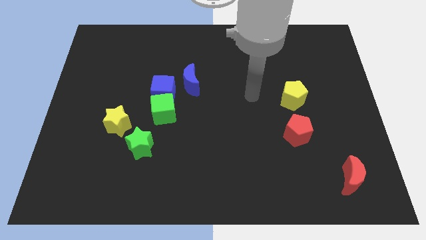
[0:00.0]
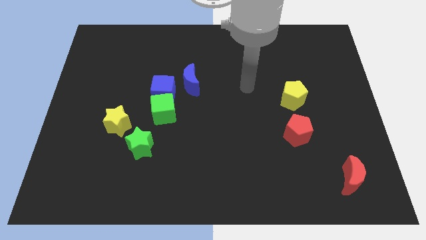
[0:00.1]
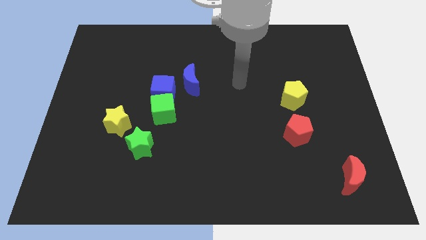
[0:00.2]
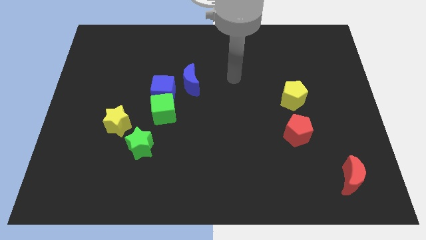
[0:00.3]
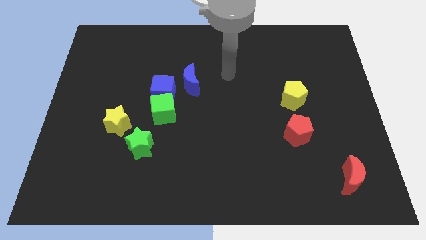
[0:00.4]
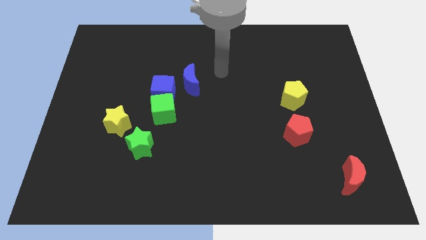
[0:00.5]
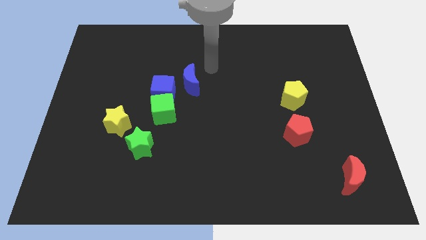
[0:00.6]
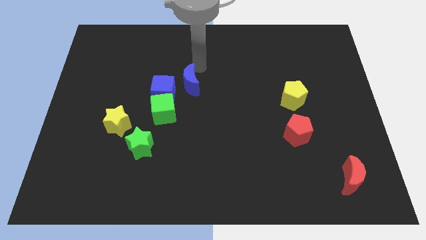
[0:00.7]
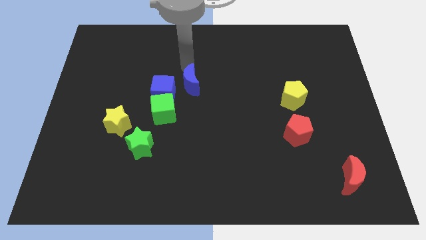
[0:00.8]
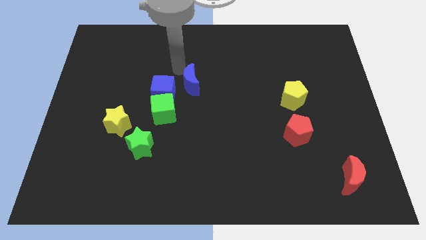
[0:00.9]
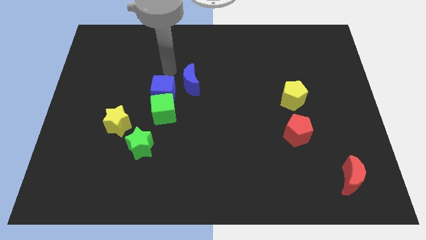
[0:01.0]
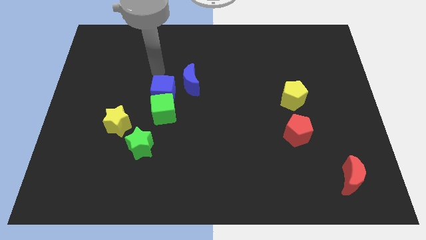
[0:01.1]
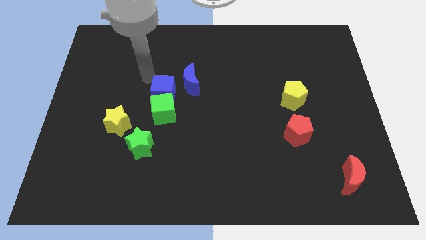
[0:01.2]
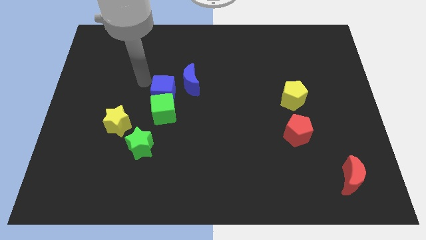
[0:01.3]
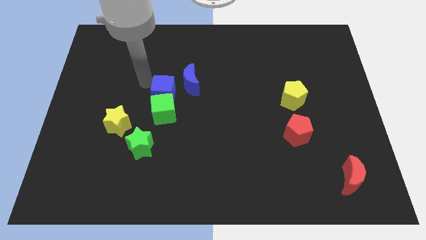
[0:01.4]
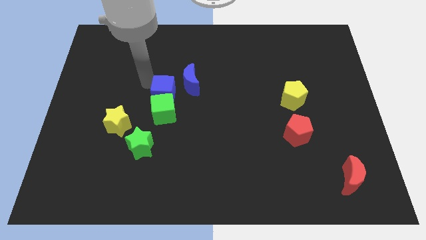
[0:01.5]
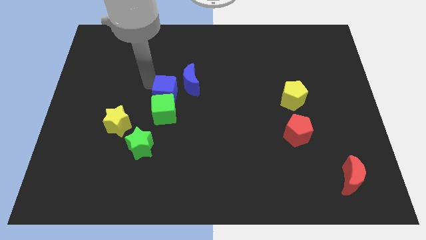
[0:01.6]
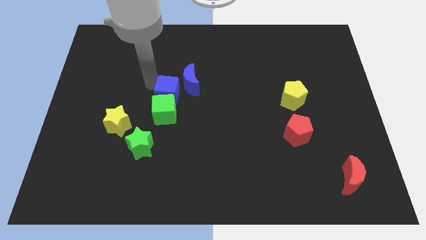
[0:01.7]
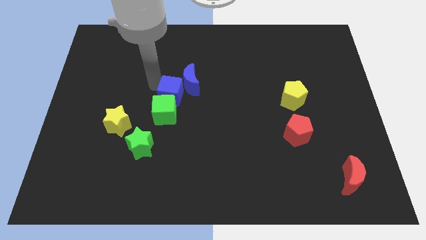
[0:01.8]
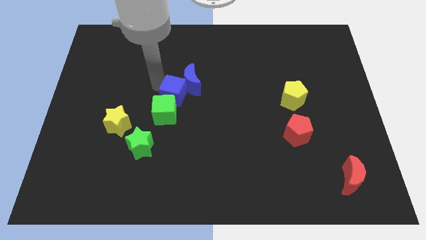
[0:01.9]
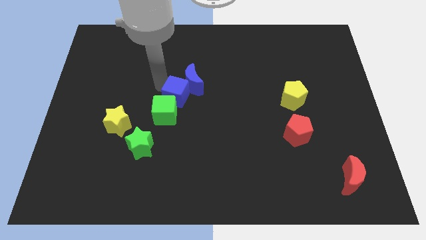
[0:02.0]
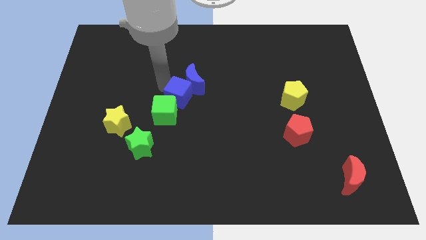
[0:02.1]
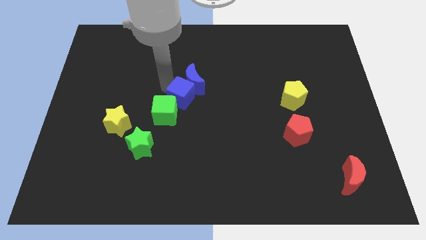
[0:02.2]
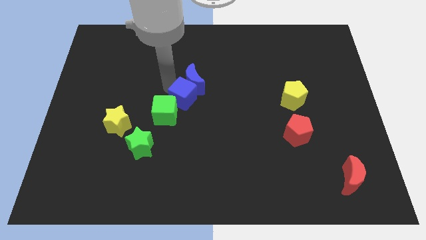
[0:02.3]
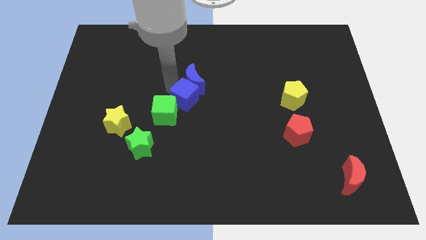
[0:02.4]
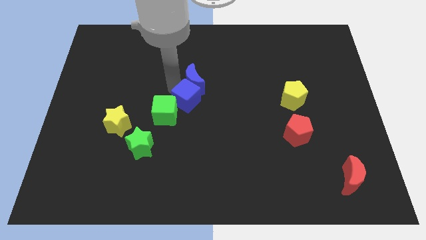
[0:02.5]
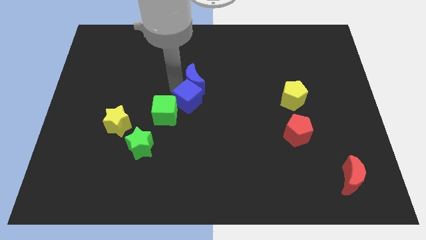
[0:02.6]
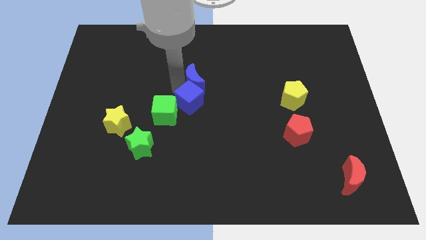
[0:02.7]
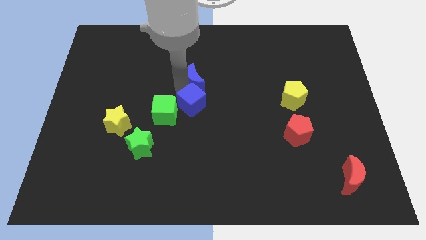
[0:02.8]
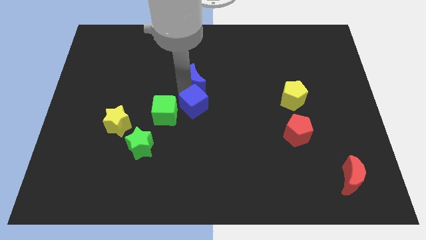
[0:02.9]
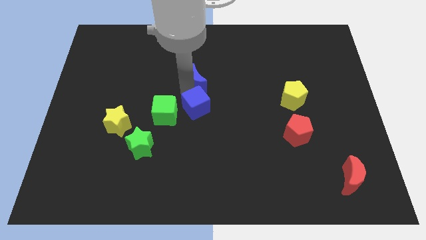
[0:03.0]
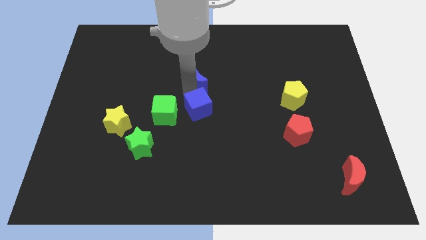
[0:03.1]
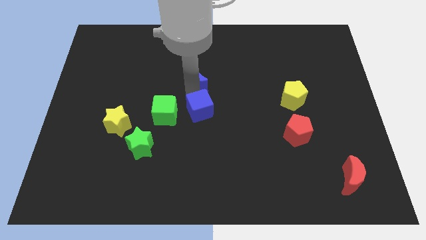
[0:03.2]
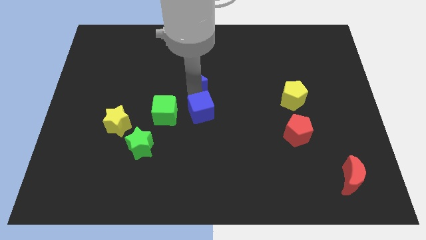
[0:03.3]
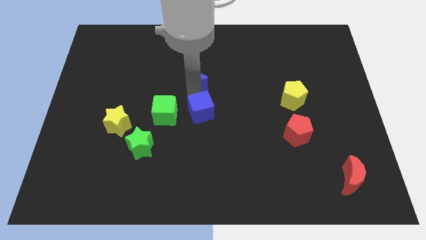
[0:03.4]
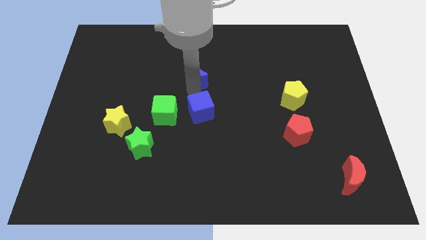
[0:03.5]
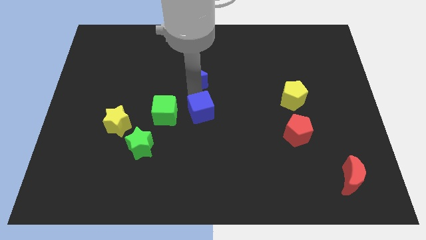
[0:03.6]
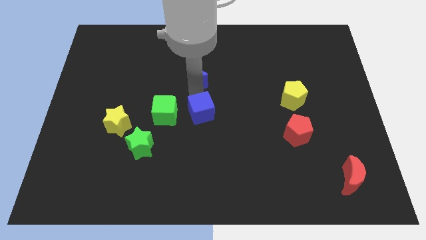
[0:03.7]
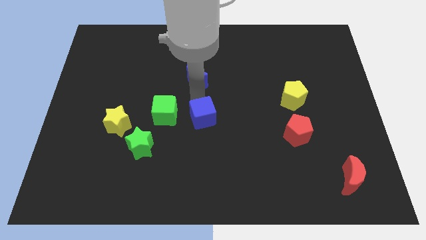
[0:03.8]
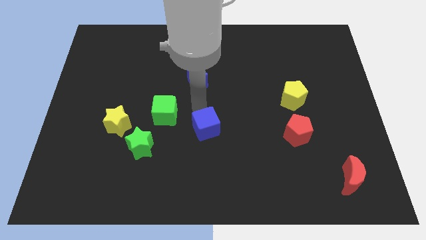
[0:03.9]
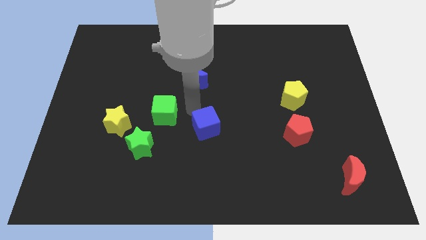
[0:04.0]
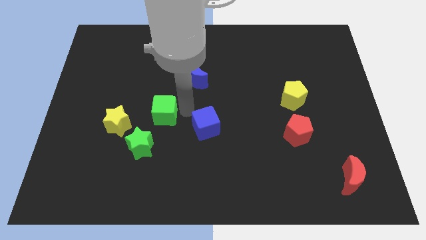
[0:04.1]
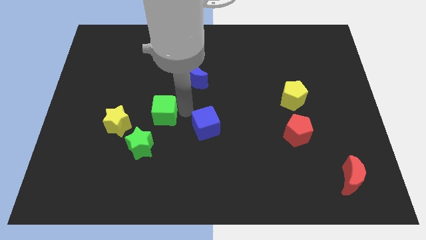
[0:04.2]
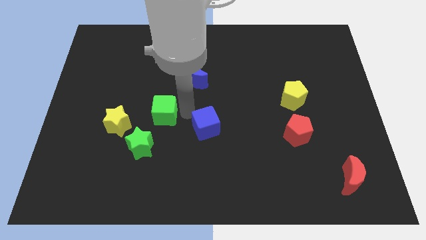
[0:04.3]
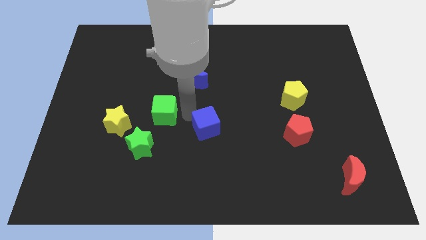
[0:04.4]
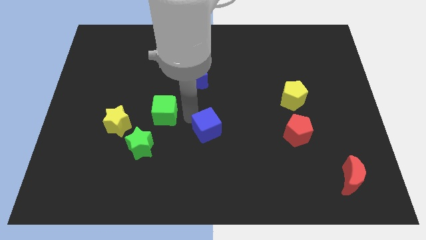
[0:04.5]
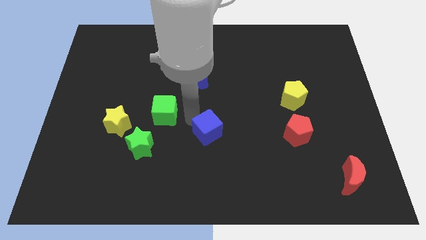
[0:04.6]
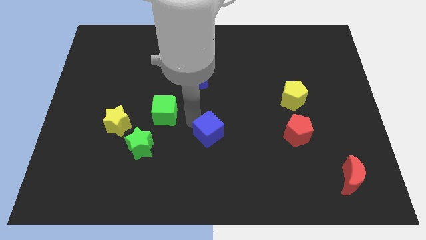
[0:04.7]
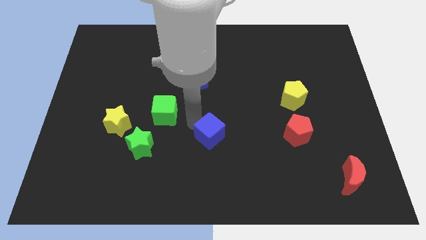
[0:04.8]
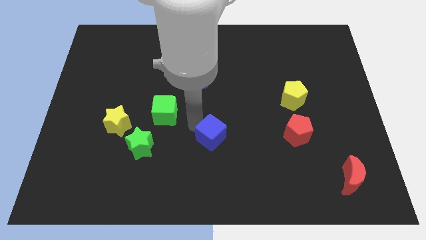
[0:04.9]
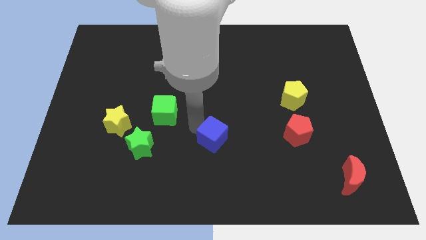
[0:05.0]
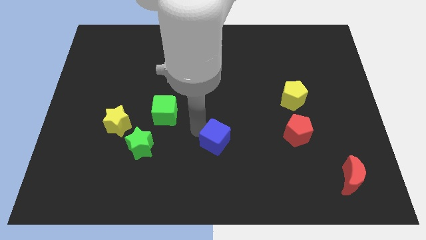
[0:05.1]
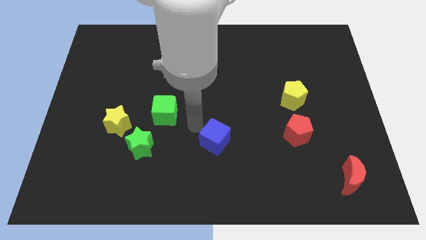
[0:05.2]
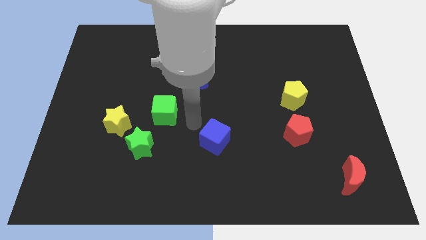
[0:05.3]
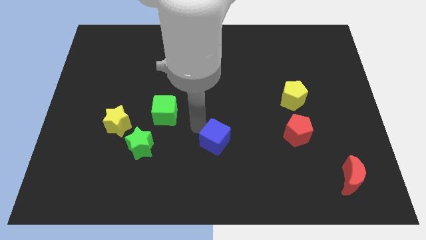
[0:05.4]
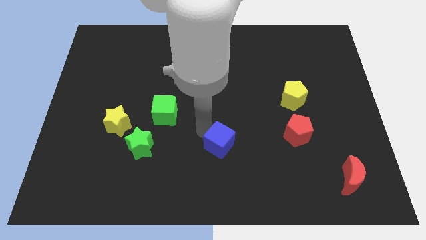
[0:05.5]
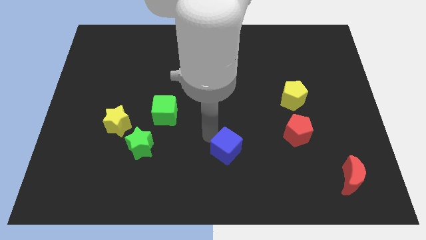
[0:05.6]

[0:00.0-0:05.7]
push the blue cube downwards and to the right diagonally

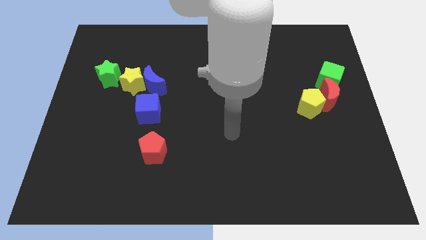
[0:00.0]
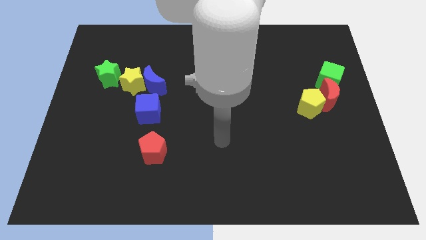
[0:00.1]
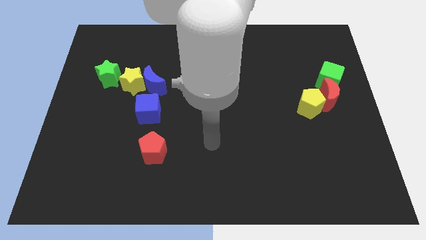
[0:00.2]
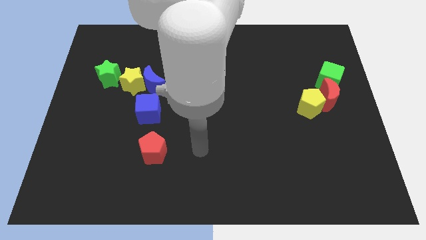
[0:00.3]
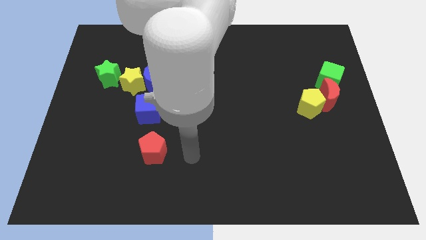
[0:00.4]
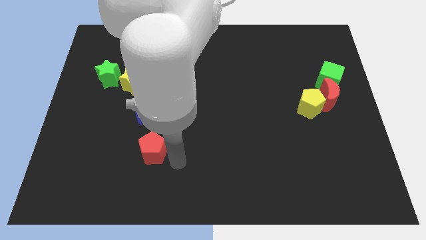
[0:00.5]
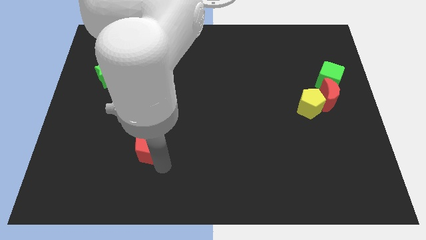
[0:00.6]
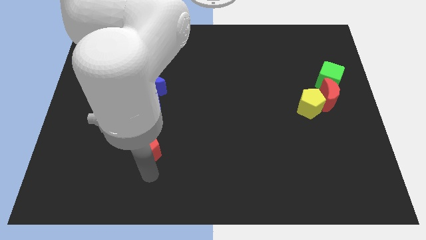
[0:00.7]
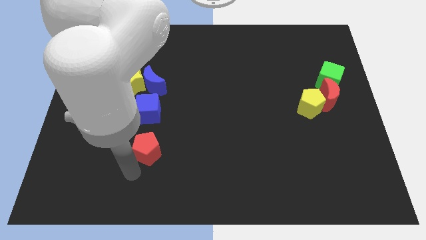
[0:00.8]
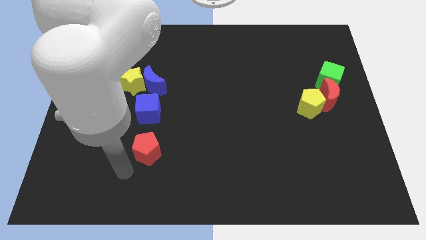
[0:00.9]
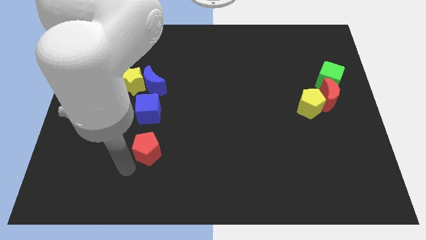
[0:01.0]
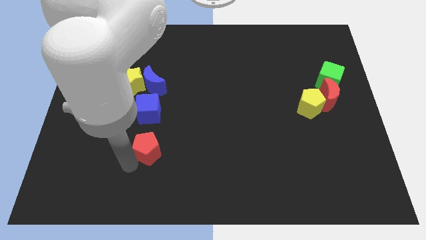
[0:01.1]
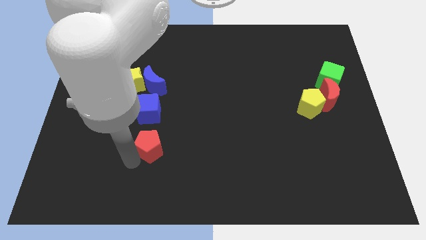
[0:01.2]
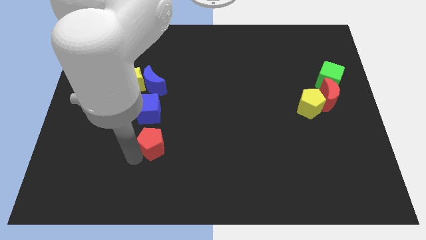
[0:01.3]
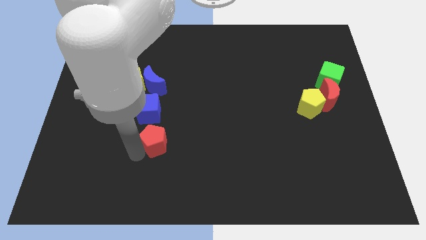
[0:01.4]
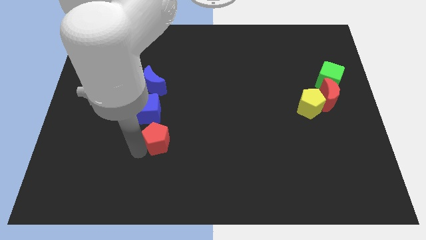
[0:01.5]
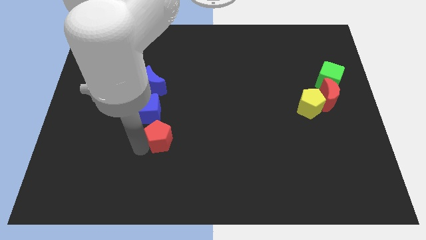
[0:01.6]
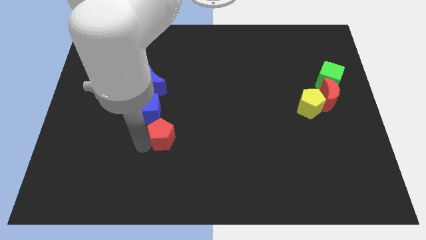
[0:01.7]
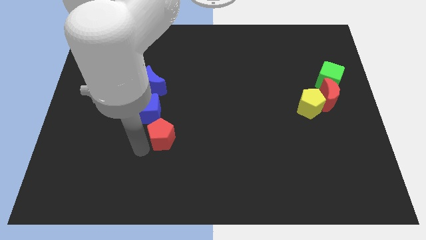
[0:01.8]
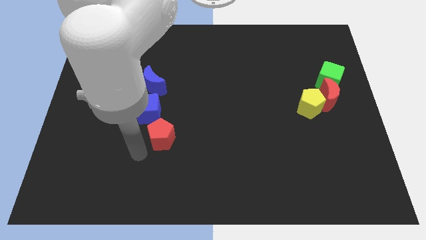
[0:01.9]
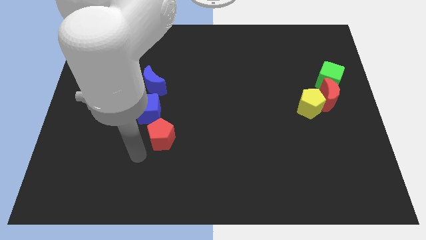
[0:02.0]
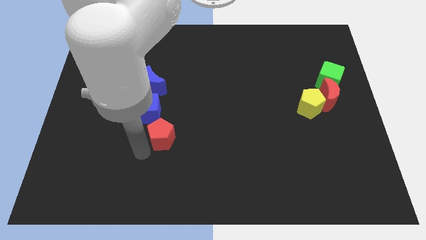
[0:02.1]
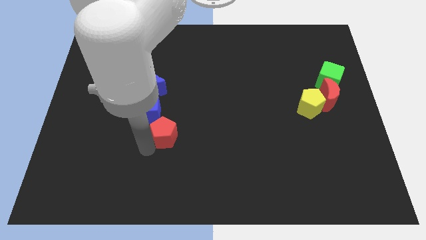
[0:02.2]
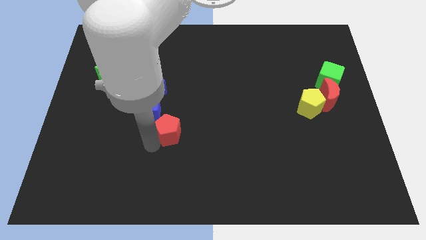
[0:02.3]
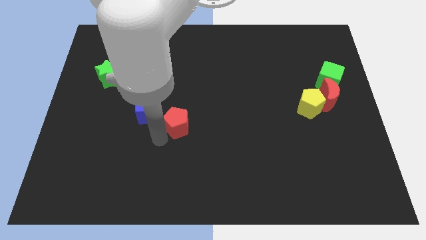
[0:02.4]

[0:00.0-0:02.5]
push the red pentagon upwards and right a little bit
